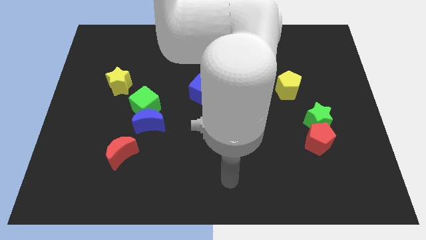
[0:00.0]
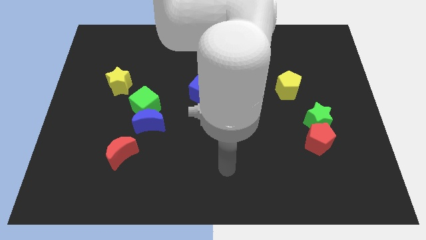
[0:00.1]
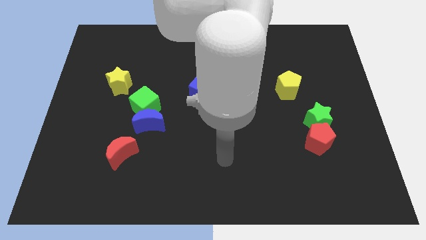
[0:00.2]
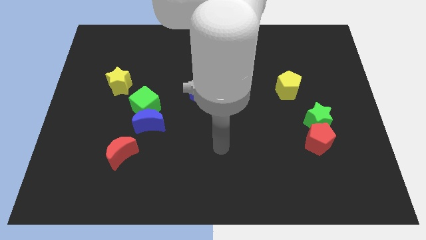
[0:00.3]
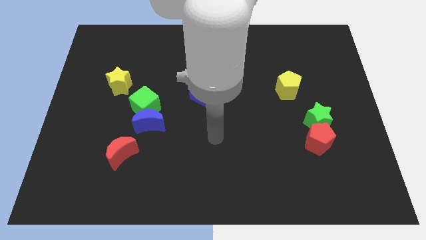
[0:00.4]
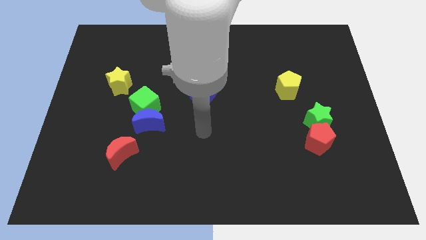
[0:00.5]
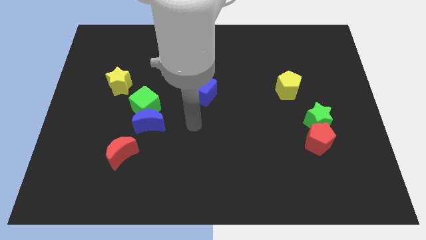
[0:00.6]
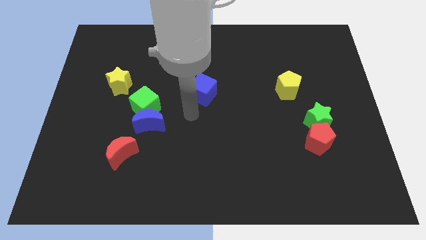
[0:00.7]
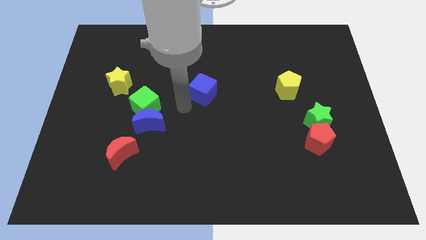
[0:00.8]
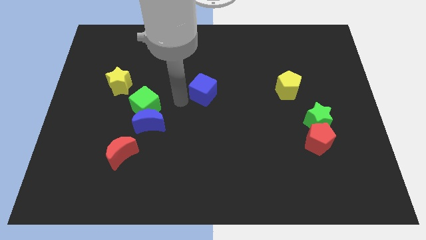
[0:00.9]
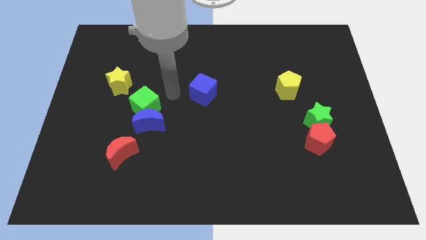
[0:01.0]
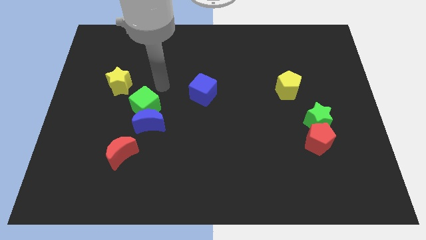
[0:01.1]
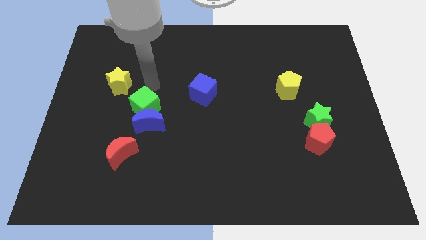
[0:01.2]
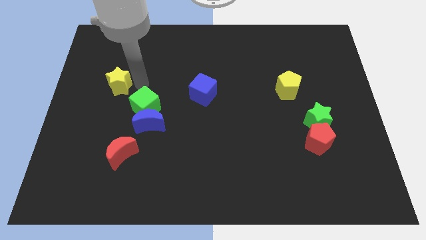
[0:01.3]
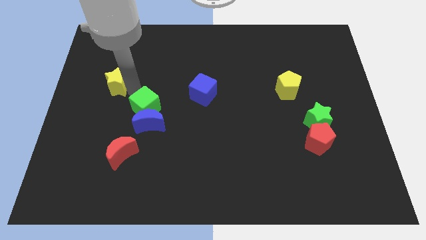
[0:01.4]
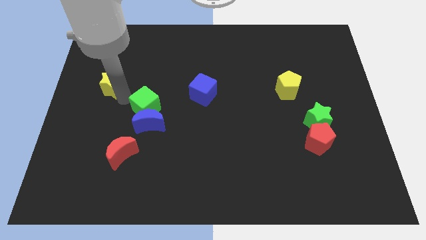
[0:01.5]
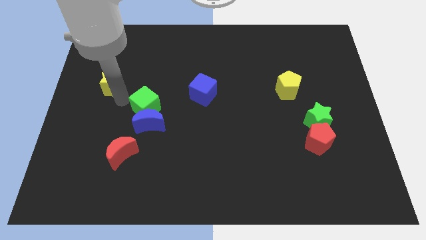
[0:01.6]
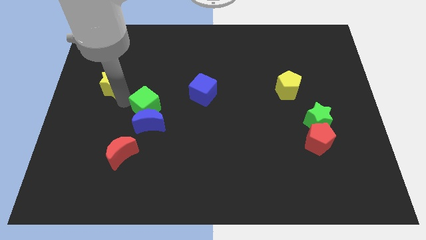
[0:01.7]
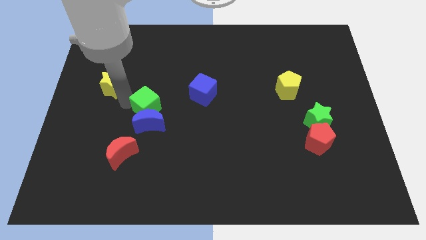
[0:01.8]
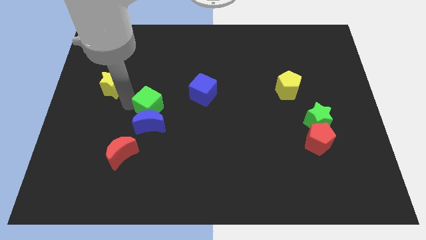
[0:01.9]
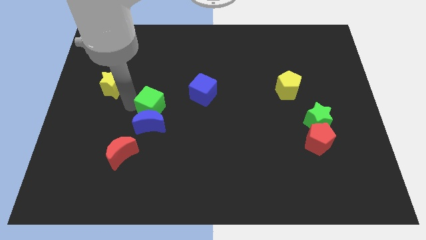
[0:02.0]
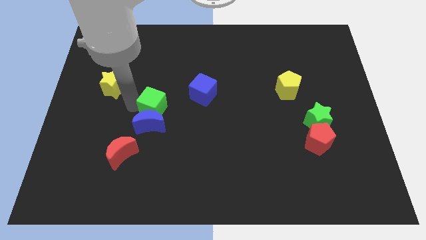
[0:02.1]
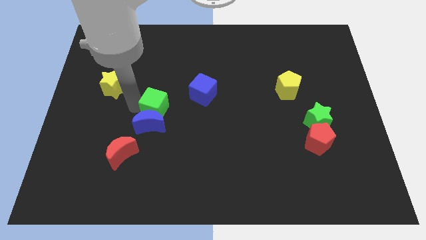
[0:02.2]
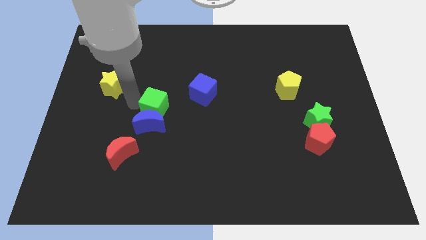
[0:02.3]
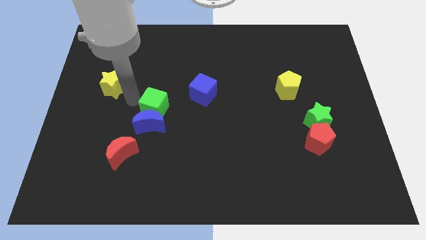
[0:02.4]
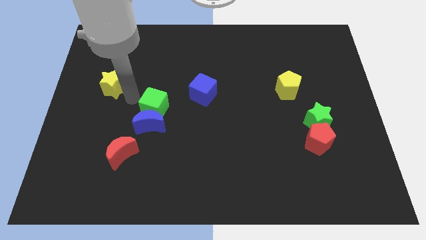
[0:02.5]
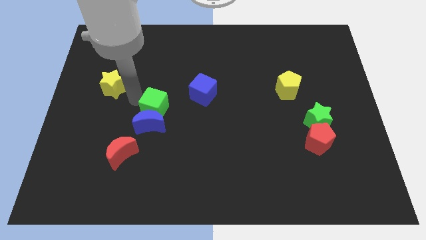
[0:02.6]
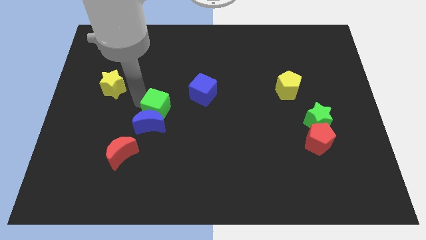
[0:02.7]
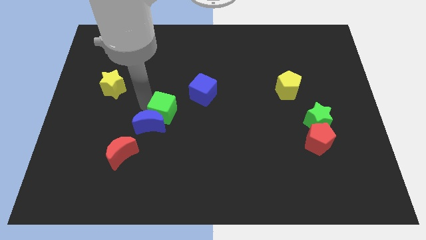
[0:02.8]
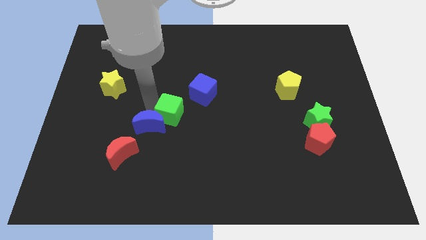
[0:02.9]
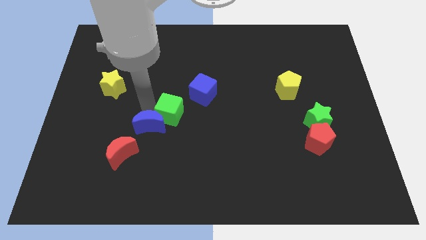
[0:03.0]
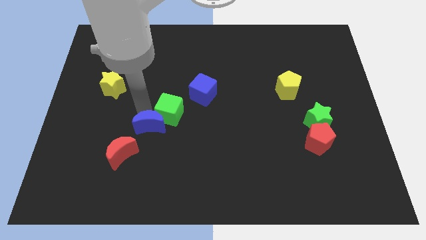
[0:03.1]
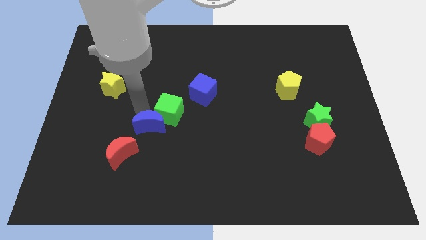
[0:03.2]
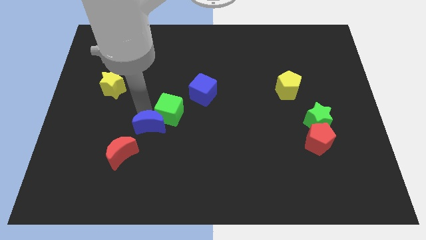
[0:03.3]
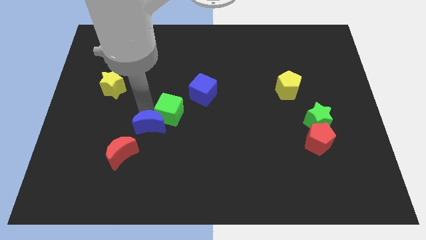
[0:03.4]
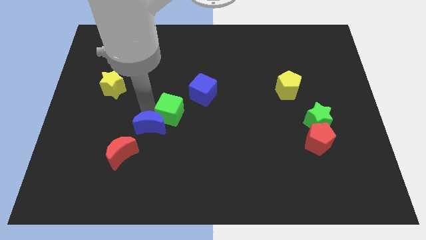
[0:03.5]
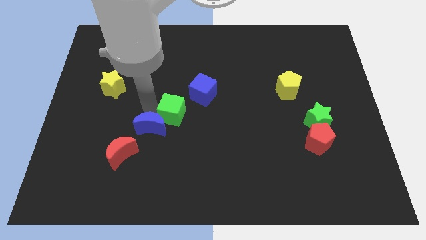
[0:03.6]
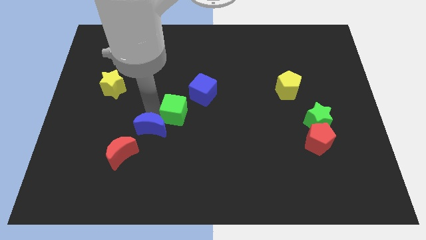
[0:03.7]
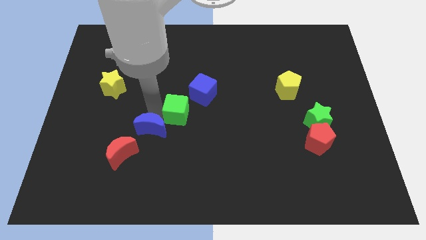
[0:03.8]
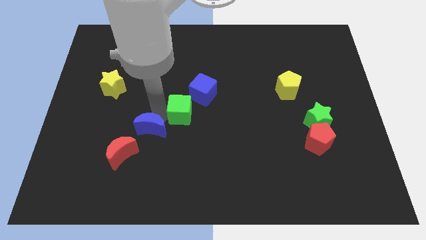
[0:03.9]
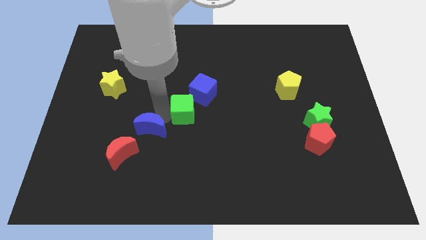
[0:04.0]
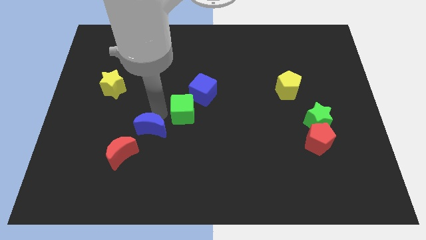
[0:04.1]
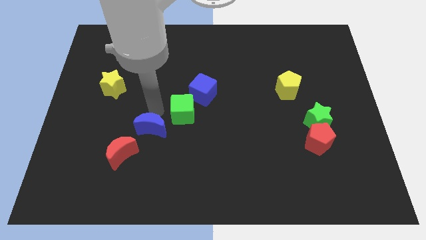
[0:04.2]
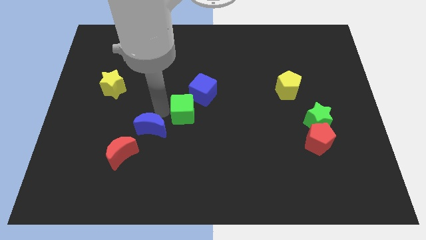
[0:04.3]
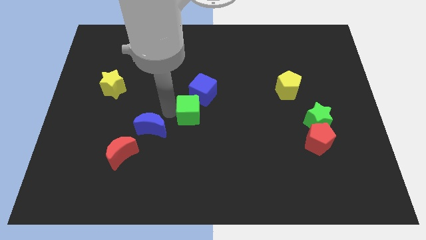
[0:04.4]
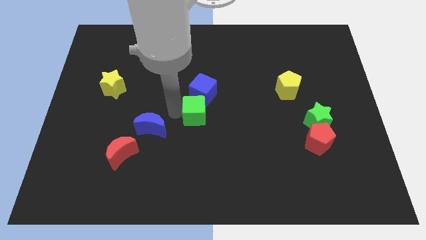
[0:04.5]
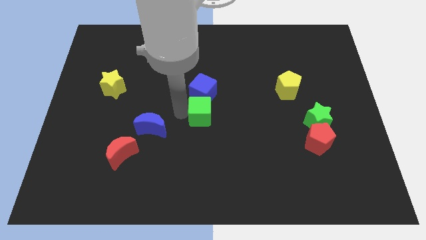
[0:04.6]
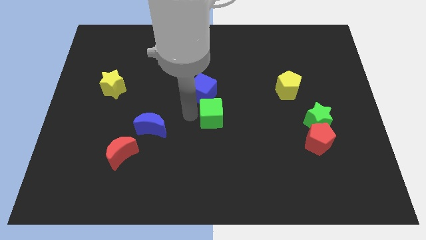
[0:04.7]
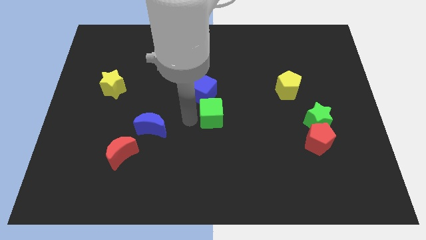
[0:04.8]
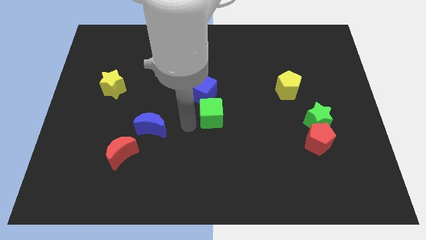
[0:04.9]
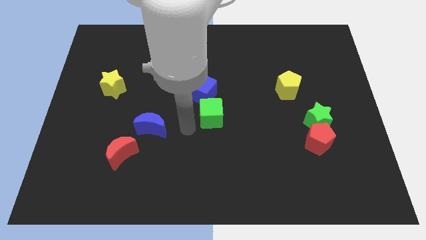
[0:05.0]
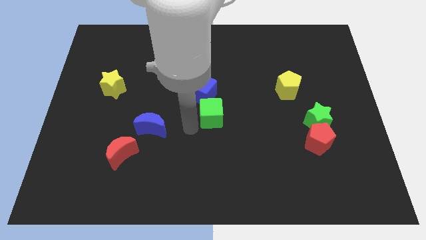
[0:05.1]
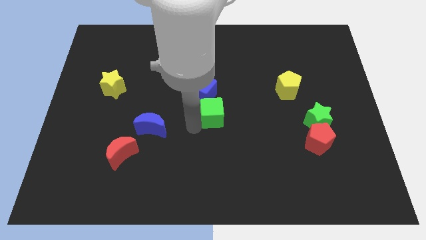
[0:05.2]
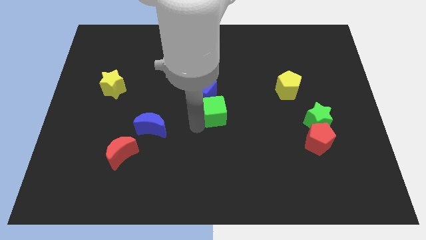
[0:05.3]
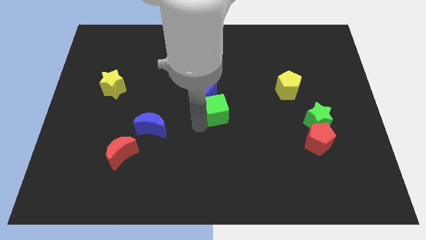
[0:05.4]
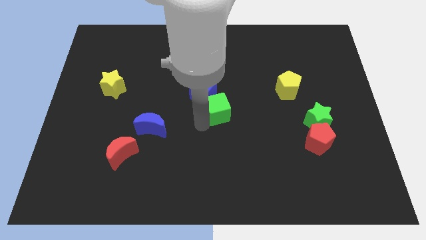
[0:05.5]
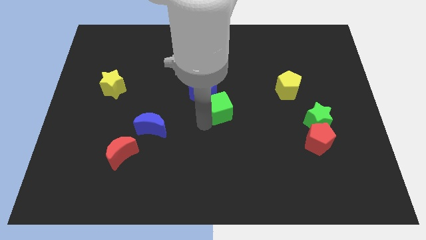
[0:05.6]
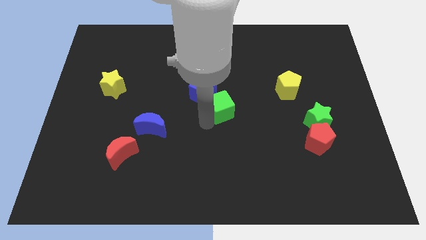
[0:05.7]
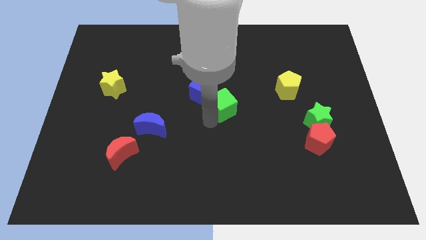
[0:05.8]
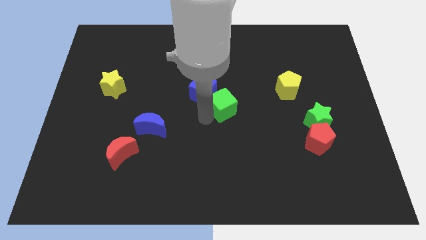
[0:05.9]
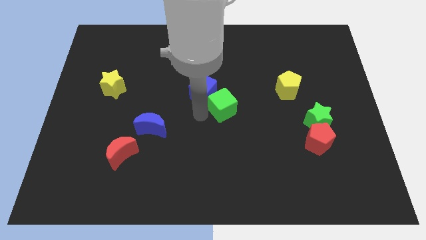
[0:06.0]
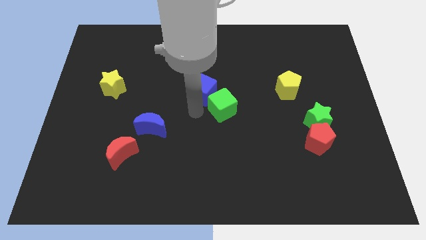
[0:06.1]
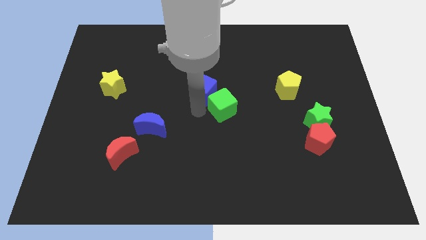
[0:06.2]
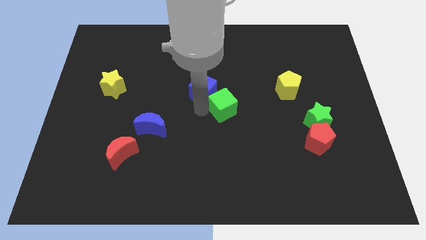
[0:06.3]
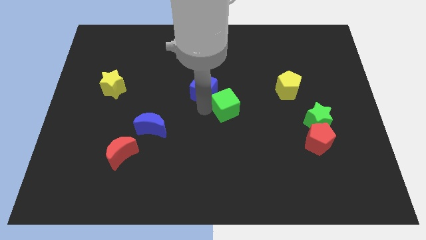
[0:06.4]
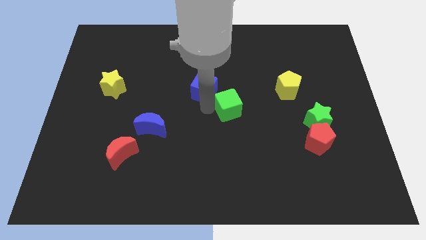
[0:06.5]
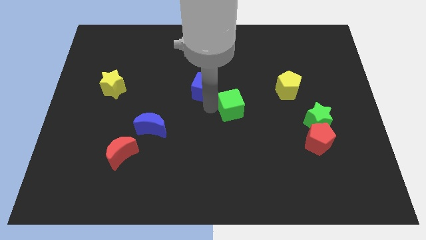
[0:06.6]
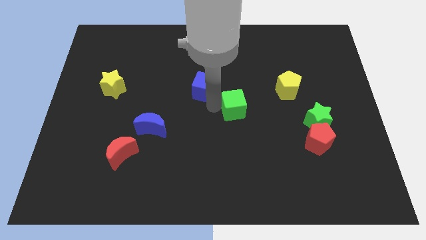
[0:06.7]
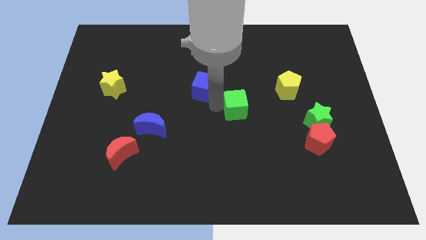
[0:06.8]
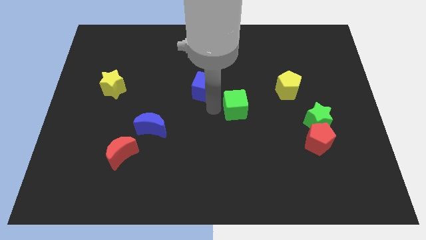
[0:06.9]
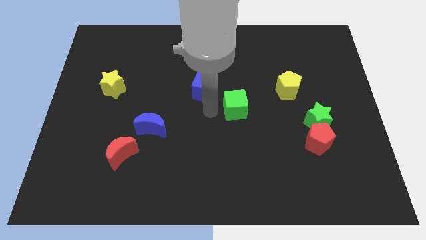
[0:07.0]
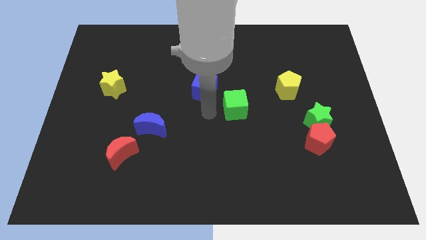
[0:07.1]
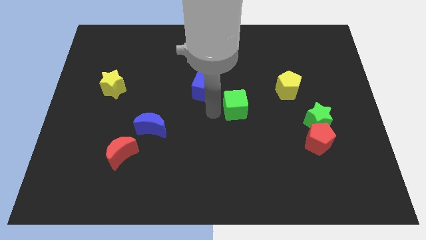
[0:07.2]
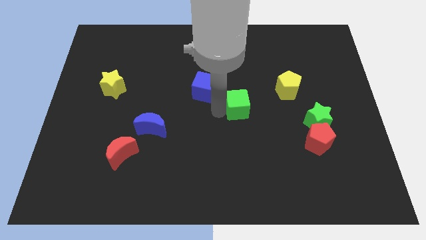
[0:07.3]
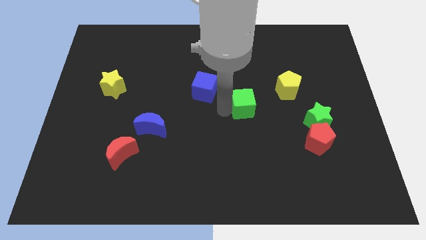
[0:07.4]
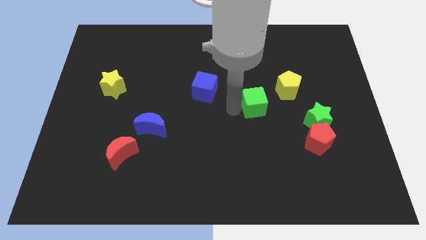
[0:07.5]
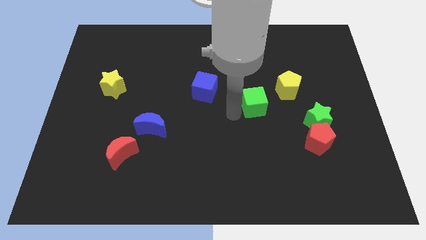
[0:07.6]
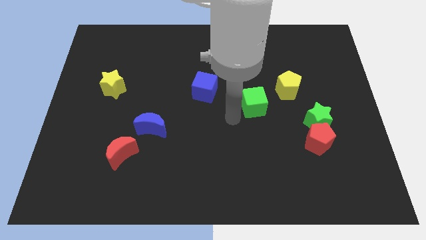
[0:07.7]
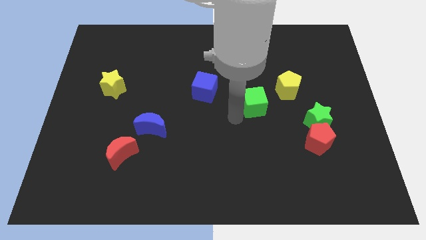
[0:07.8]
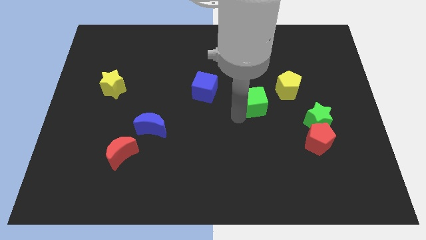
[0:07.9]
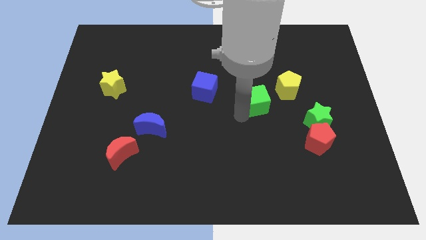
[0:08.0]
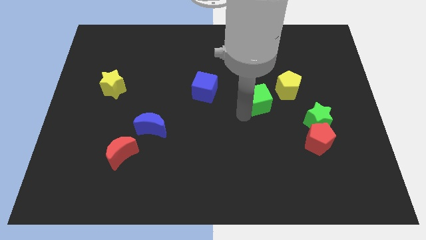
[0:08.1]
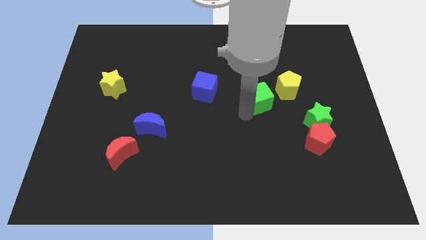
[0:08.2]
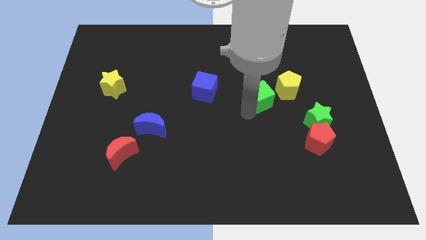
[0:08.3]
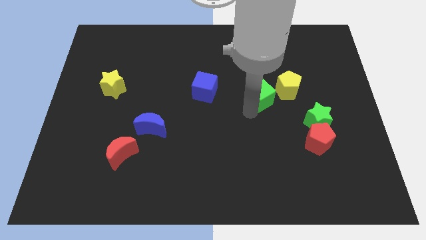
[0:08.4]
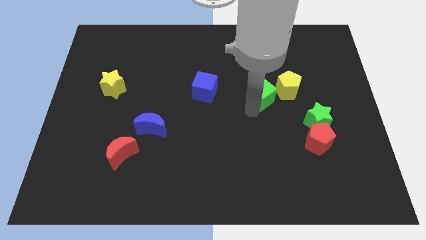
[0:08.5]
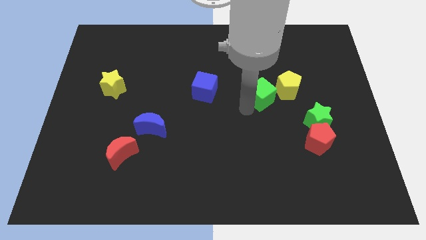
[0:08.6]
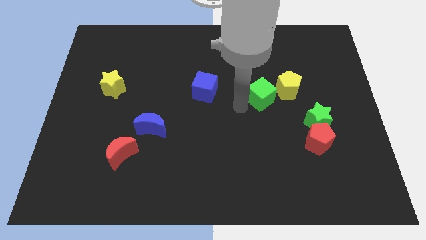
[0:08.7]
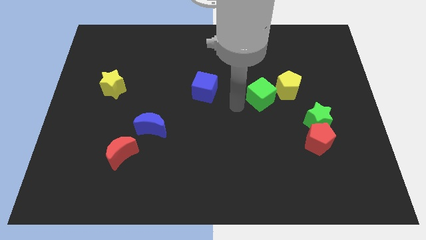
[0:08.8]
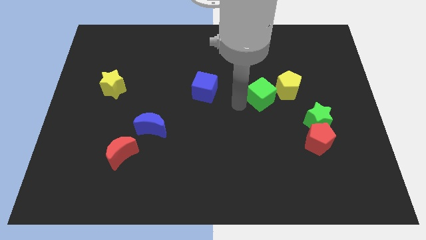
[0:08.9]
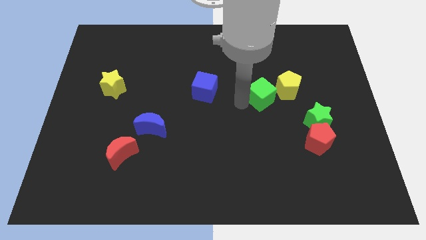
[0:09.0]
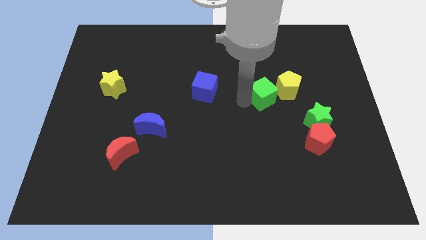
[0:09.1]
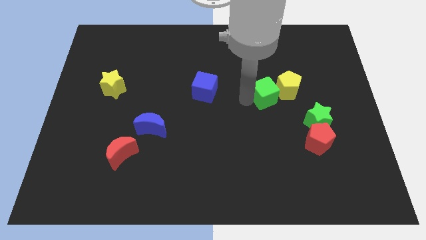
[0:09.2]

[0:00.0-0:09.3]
slide the green cube to the yellow pentagon
